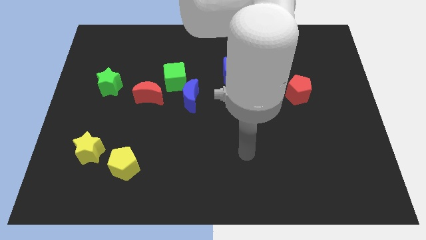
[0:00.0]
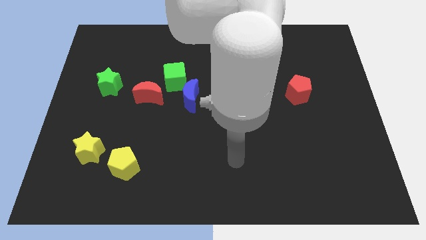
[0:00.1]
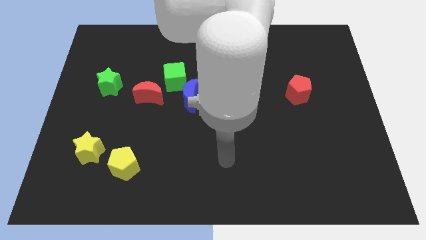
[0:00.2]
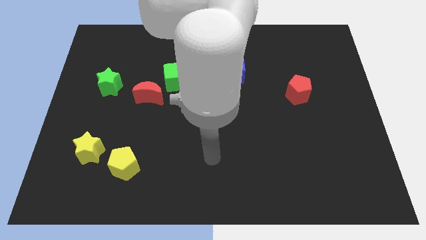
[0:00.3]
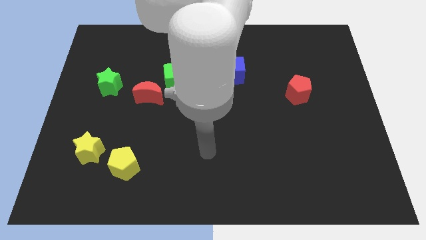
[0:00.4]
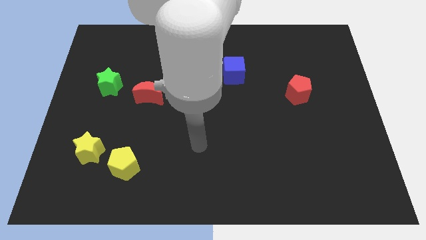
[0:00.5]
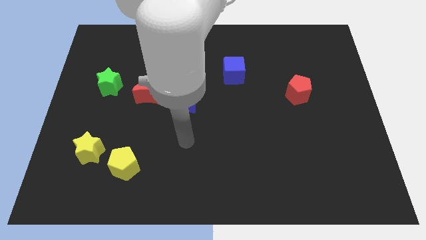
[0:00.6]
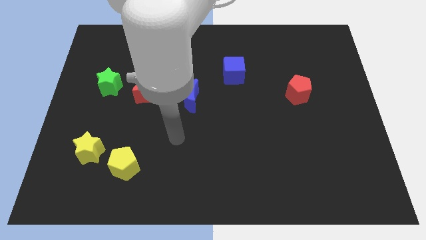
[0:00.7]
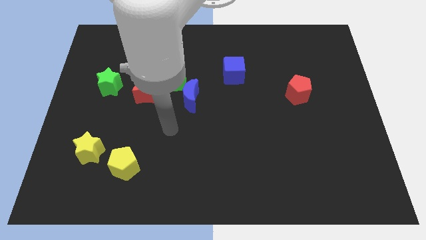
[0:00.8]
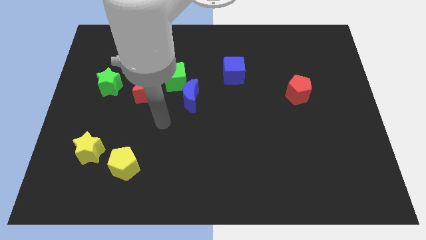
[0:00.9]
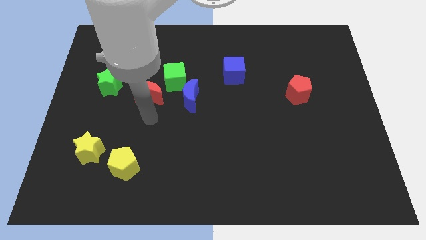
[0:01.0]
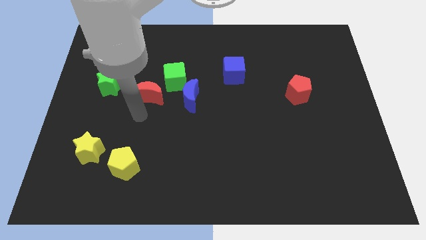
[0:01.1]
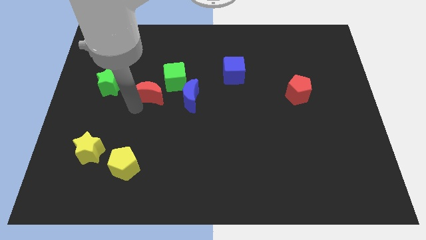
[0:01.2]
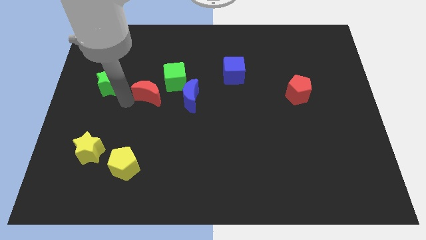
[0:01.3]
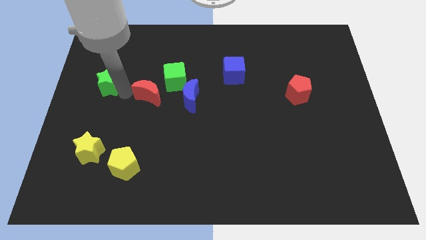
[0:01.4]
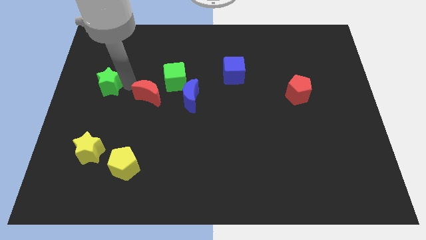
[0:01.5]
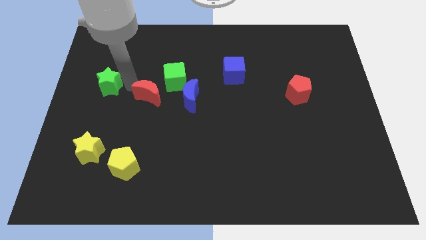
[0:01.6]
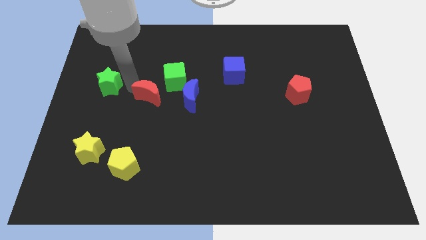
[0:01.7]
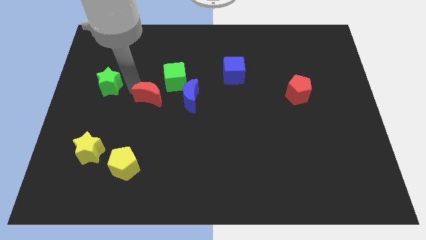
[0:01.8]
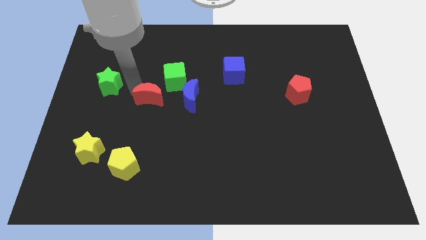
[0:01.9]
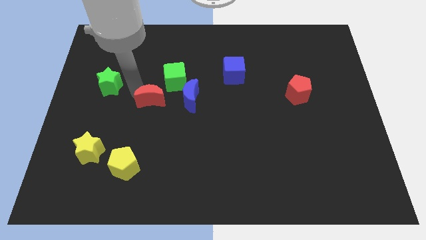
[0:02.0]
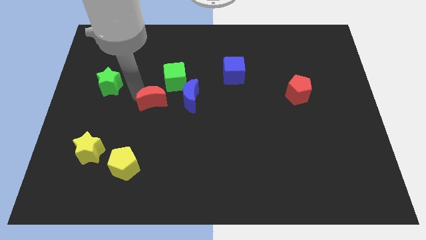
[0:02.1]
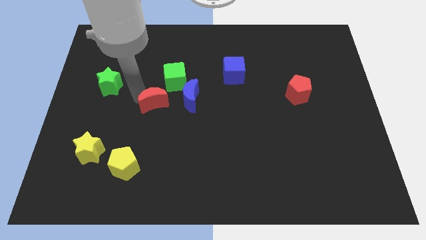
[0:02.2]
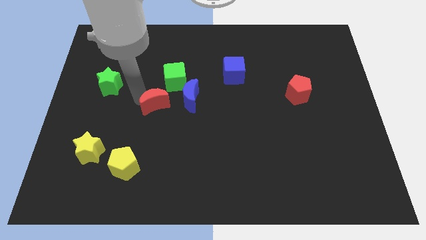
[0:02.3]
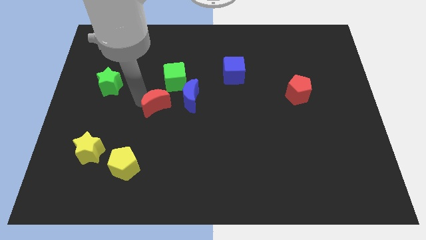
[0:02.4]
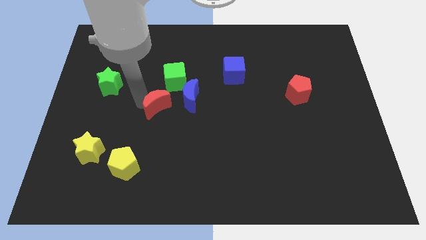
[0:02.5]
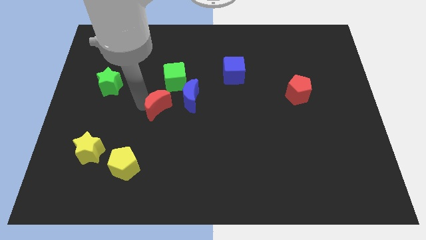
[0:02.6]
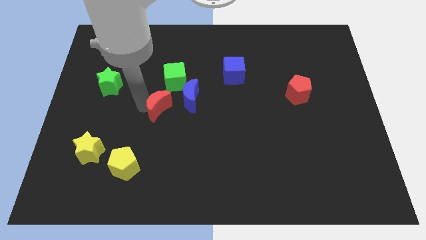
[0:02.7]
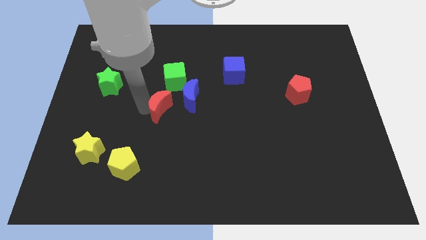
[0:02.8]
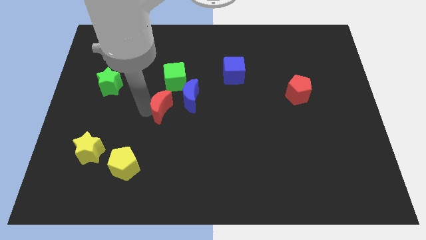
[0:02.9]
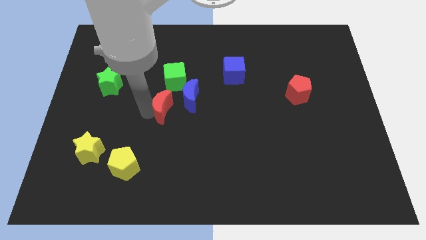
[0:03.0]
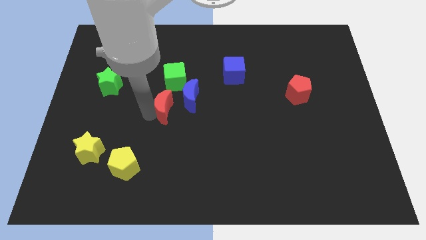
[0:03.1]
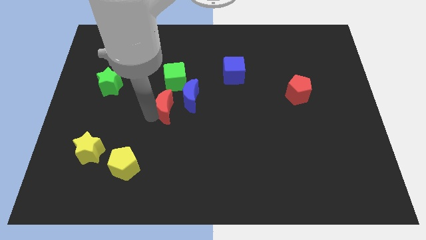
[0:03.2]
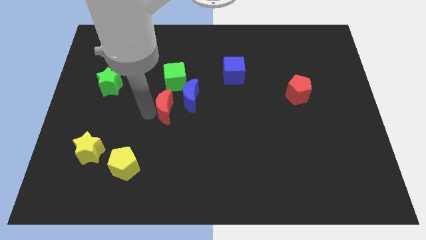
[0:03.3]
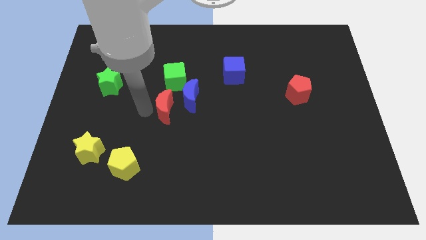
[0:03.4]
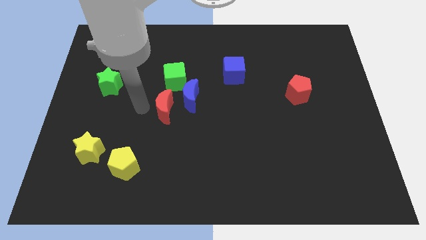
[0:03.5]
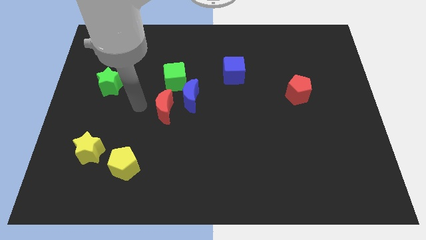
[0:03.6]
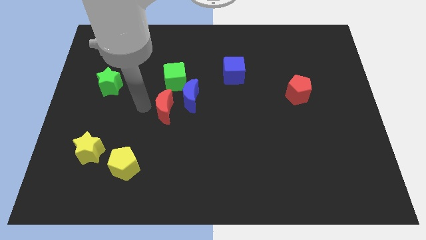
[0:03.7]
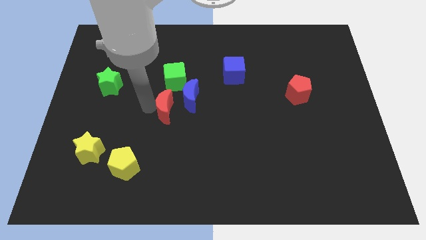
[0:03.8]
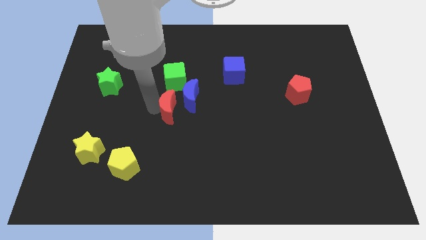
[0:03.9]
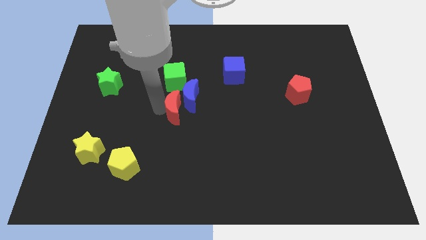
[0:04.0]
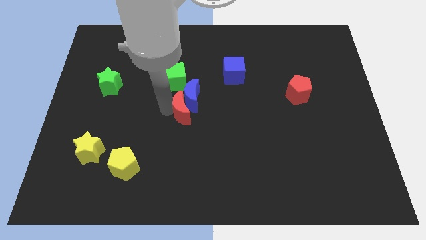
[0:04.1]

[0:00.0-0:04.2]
slightly move the red moon right

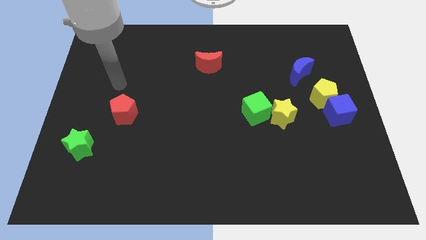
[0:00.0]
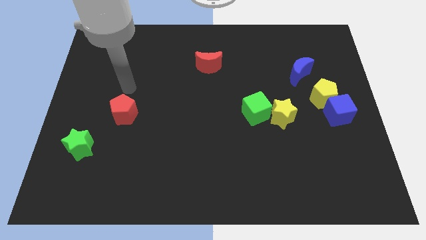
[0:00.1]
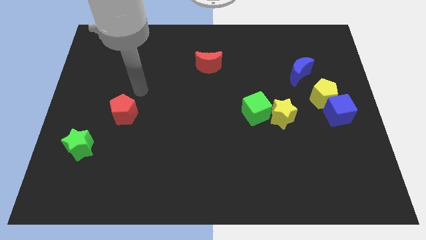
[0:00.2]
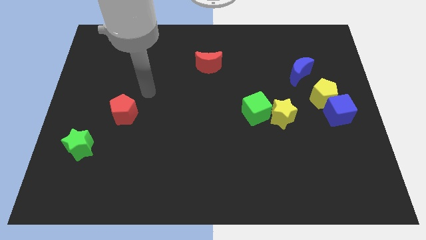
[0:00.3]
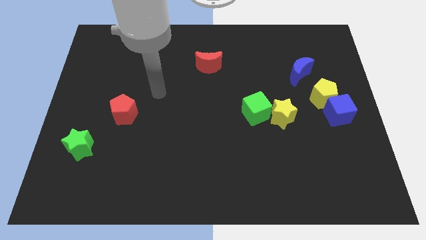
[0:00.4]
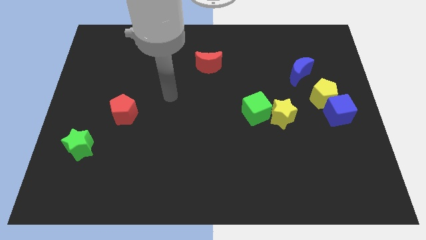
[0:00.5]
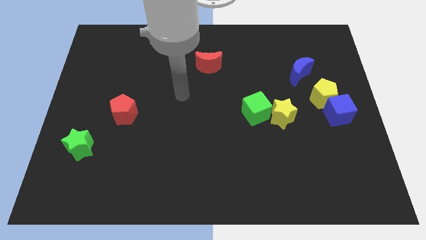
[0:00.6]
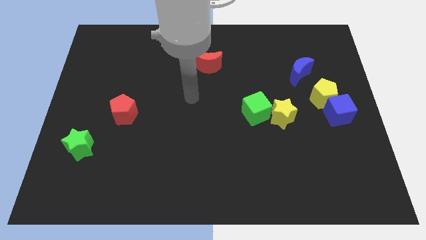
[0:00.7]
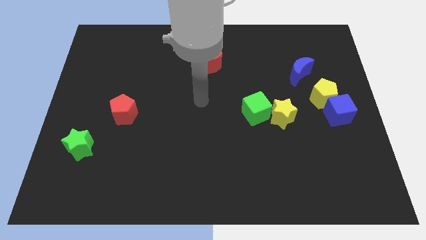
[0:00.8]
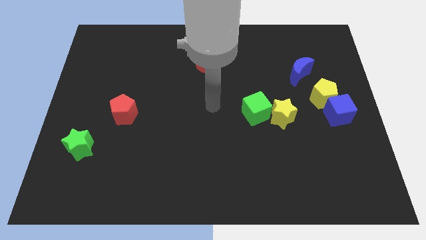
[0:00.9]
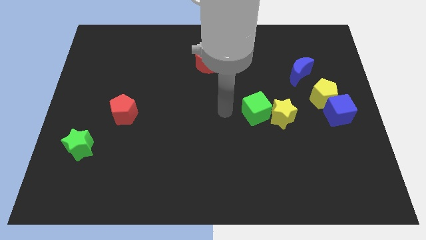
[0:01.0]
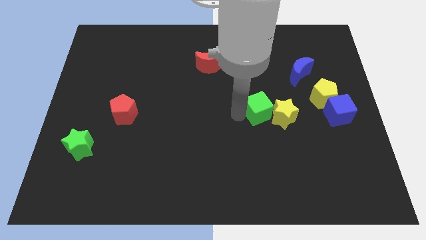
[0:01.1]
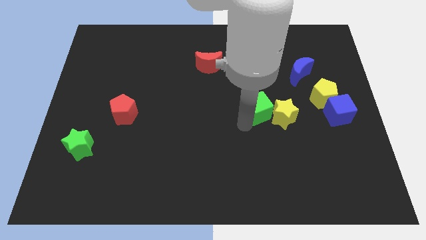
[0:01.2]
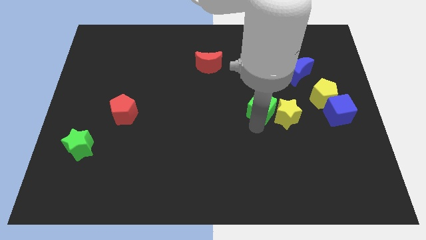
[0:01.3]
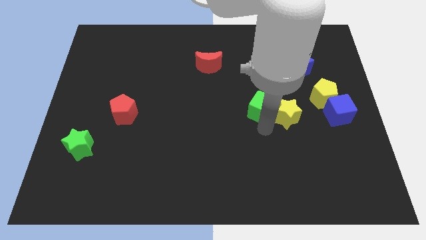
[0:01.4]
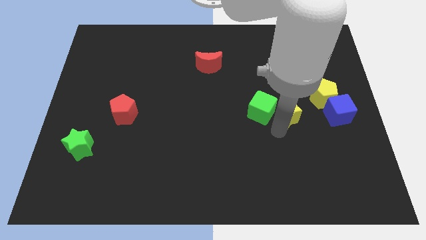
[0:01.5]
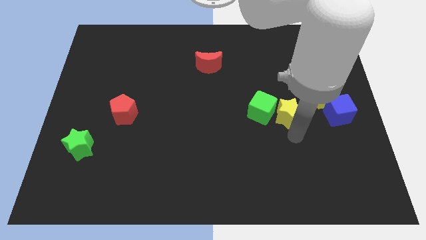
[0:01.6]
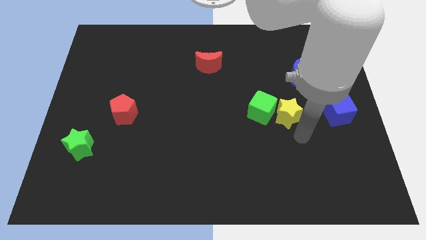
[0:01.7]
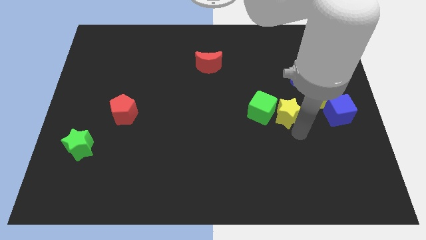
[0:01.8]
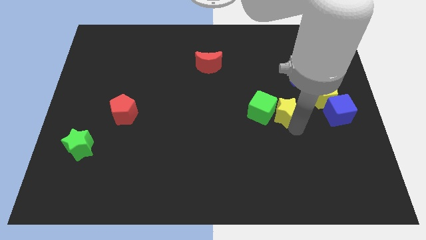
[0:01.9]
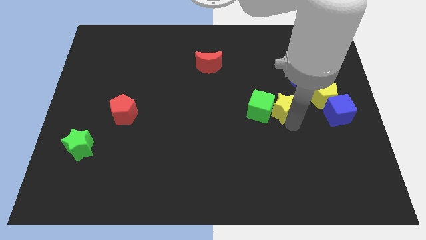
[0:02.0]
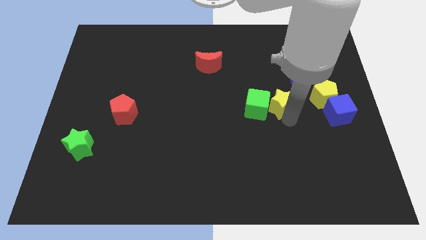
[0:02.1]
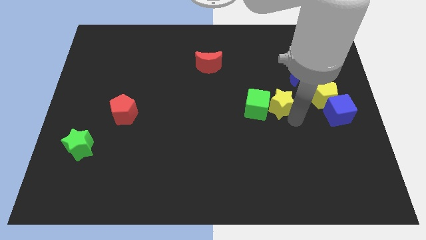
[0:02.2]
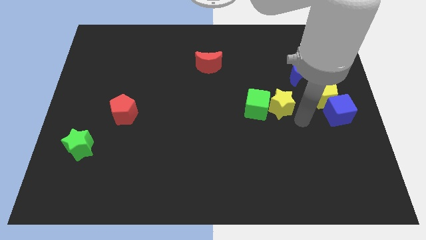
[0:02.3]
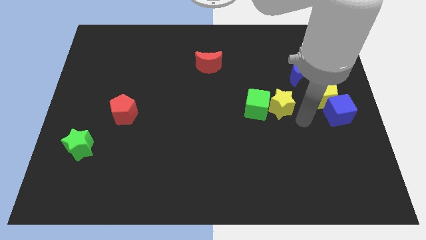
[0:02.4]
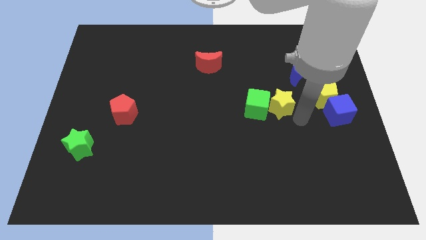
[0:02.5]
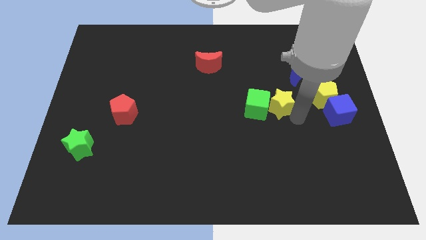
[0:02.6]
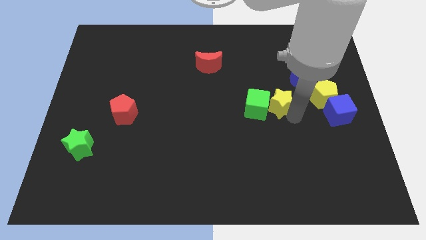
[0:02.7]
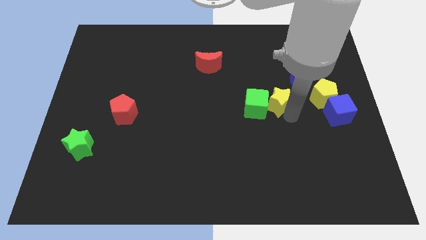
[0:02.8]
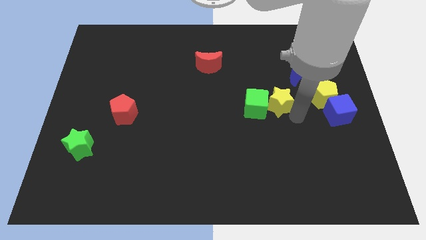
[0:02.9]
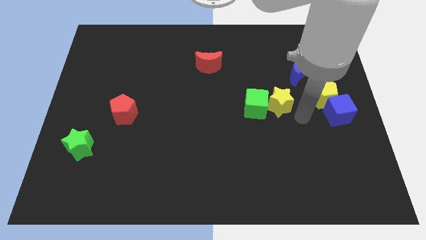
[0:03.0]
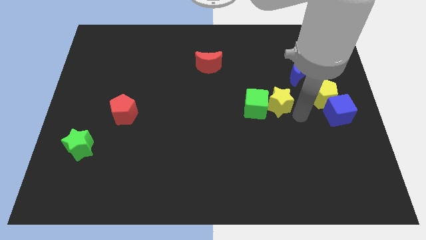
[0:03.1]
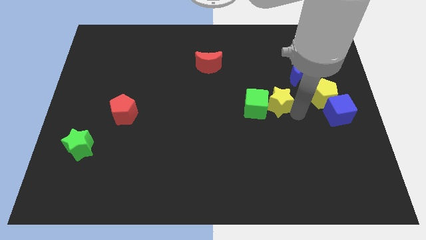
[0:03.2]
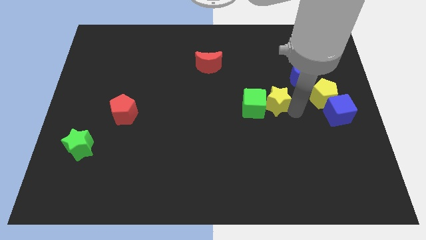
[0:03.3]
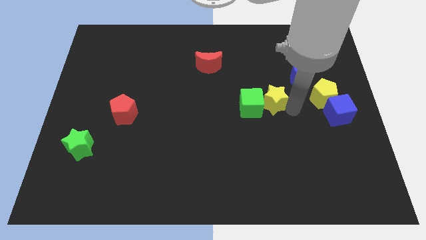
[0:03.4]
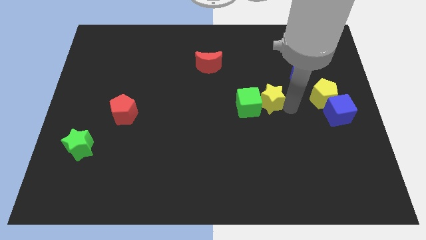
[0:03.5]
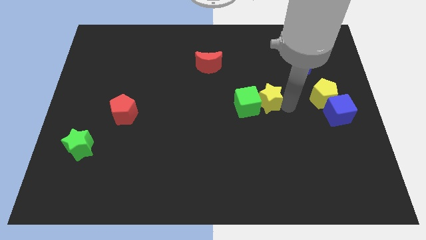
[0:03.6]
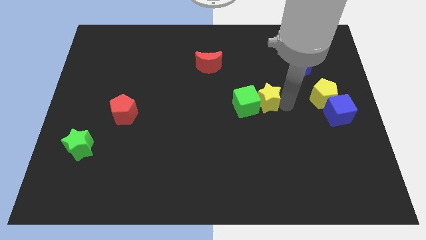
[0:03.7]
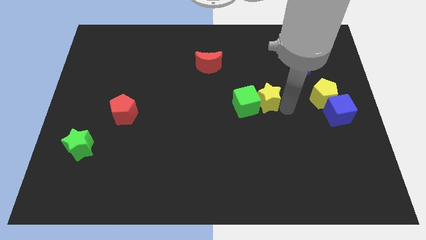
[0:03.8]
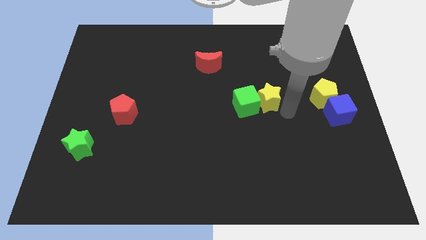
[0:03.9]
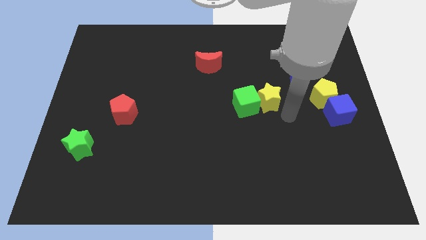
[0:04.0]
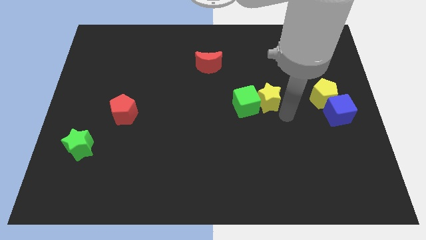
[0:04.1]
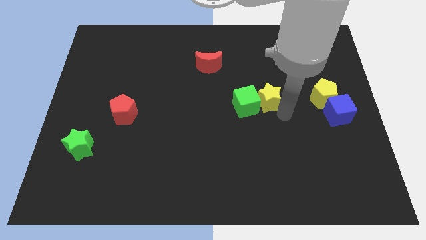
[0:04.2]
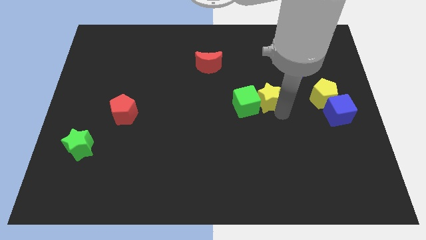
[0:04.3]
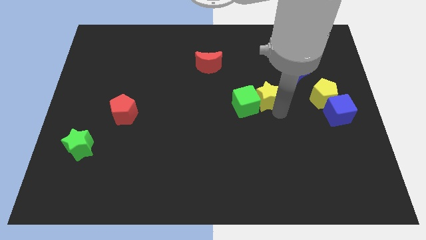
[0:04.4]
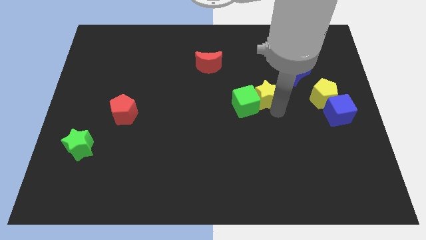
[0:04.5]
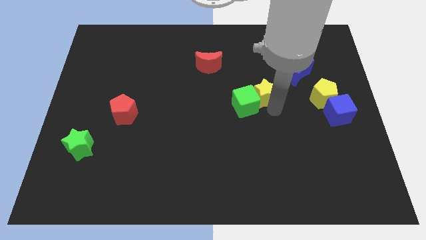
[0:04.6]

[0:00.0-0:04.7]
slide the yellow star a little diagonally upwards and left
